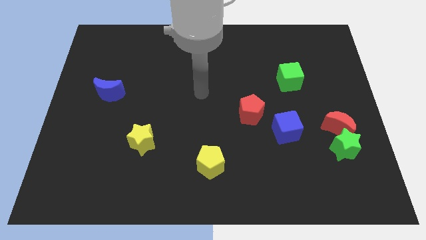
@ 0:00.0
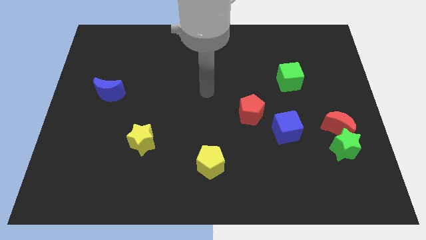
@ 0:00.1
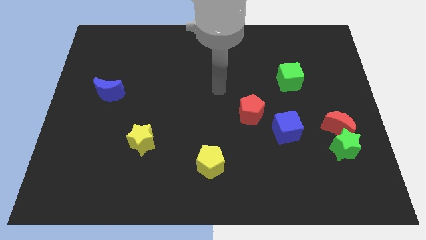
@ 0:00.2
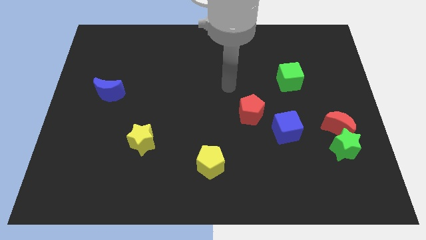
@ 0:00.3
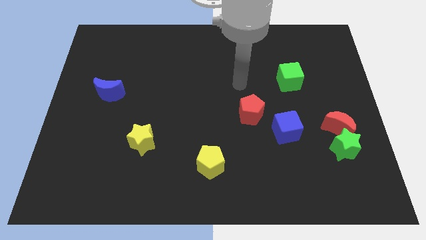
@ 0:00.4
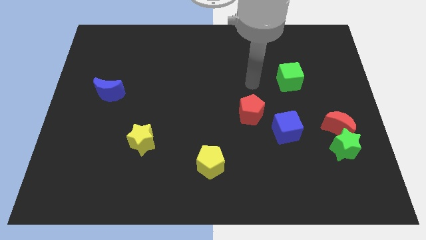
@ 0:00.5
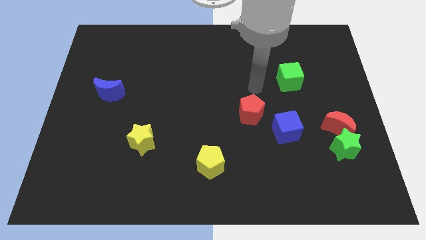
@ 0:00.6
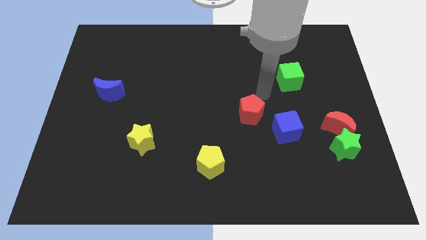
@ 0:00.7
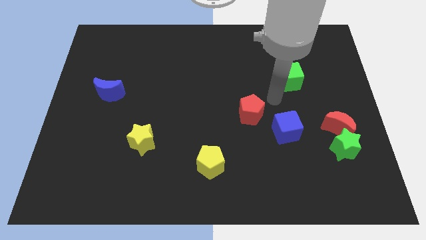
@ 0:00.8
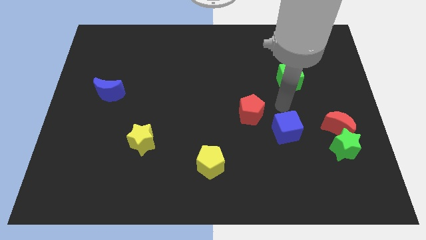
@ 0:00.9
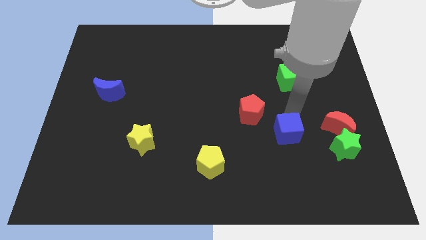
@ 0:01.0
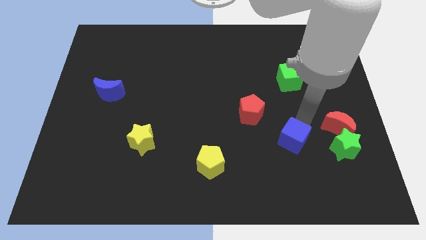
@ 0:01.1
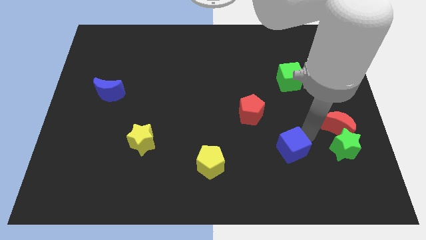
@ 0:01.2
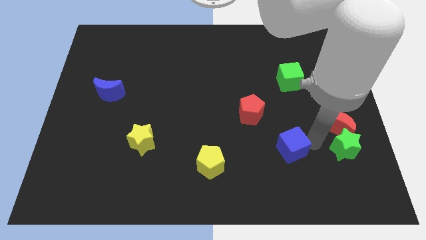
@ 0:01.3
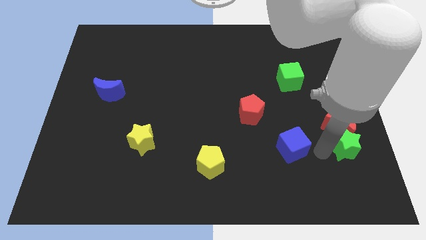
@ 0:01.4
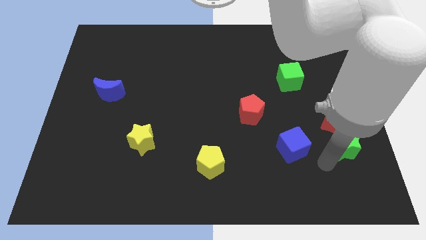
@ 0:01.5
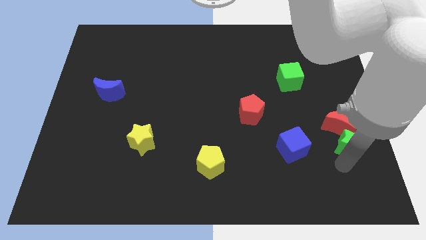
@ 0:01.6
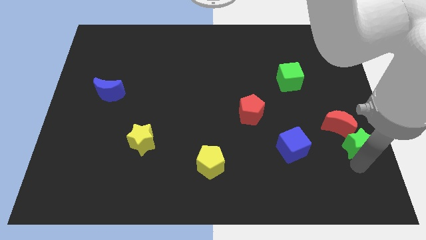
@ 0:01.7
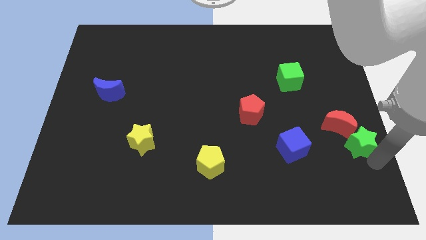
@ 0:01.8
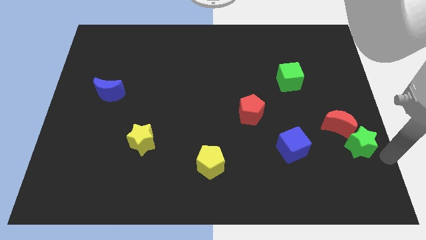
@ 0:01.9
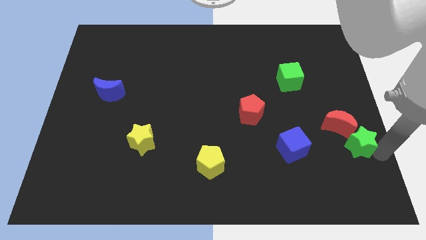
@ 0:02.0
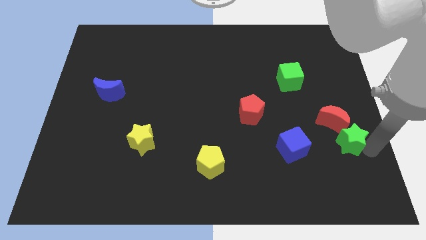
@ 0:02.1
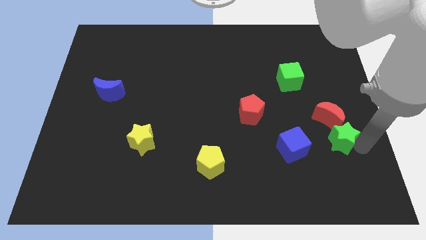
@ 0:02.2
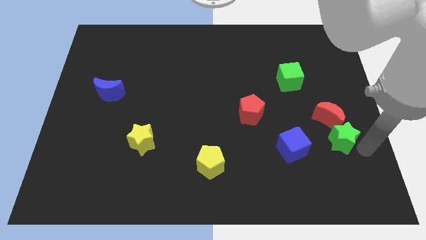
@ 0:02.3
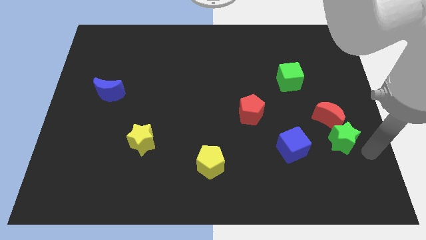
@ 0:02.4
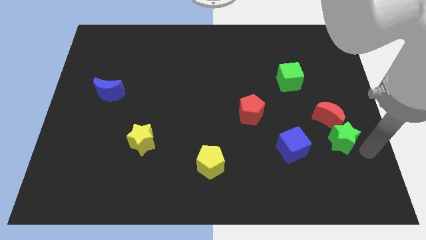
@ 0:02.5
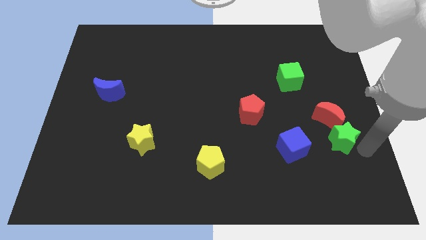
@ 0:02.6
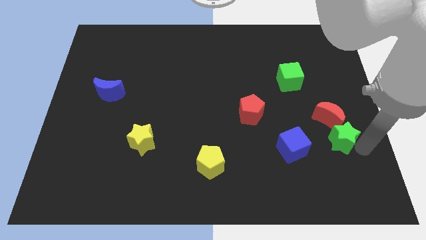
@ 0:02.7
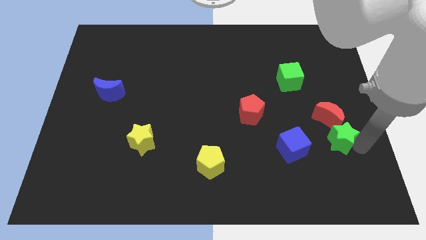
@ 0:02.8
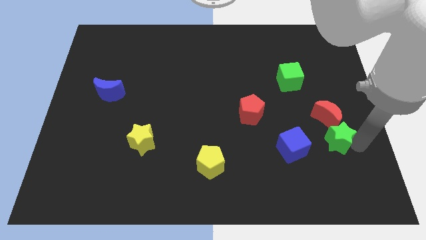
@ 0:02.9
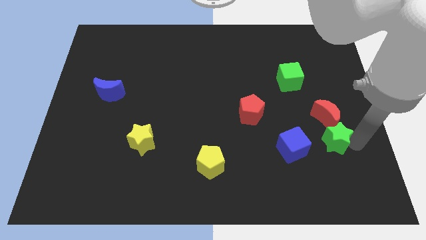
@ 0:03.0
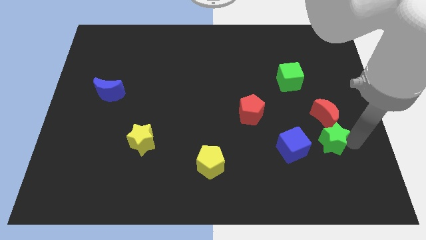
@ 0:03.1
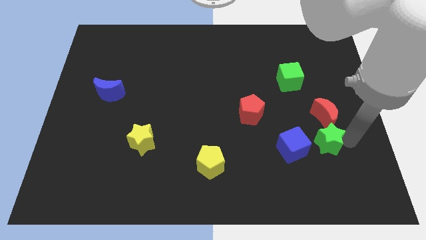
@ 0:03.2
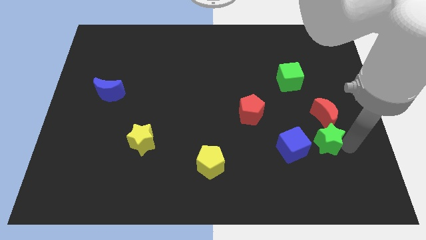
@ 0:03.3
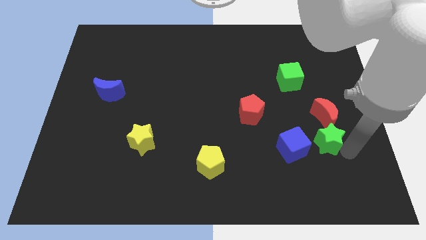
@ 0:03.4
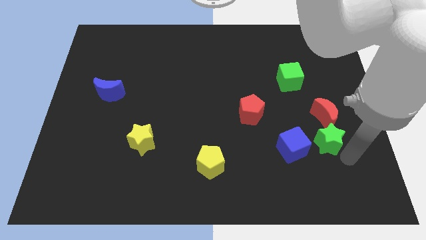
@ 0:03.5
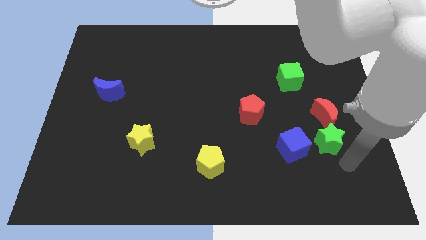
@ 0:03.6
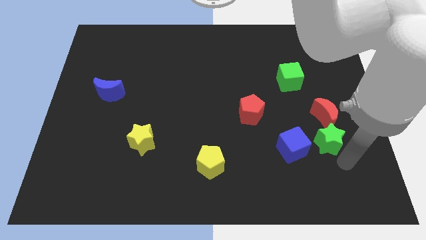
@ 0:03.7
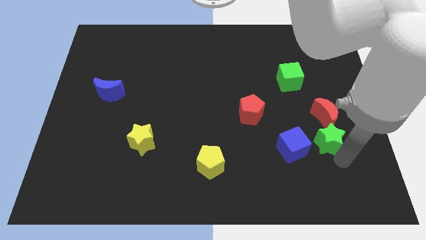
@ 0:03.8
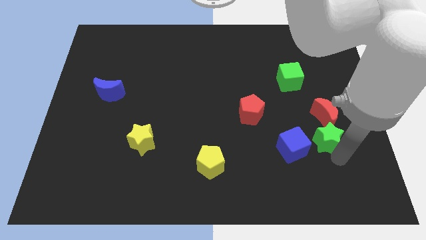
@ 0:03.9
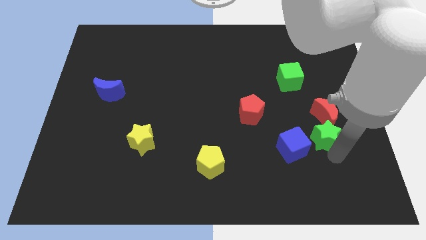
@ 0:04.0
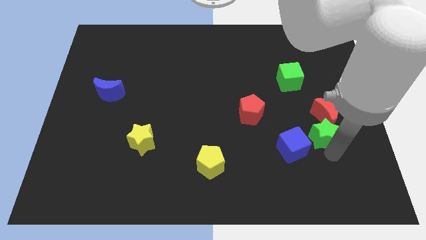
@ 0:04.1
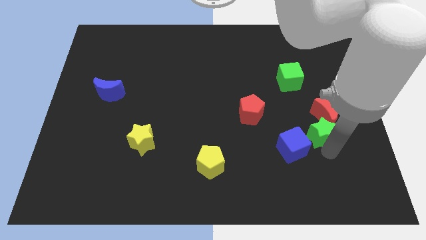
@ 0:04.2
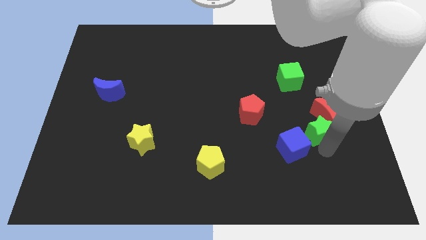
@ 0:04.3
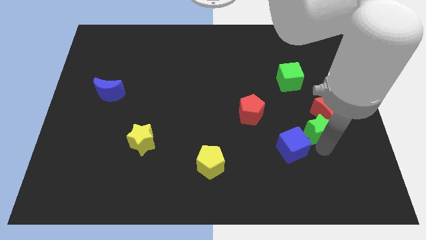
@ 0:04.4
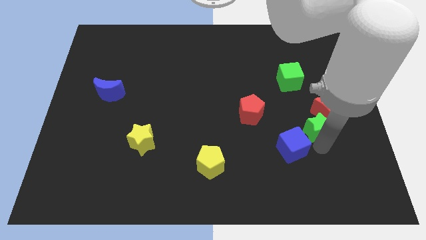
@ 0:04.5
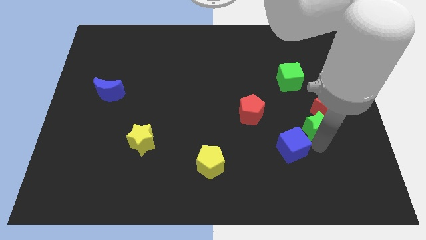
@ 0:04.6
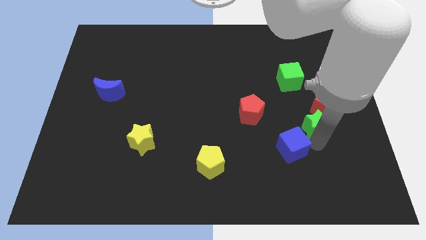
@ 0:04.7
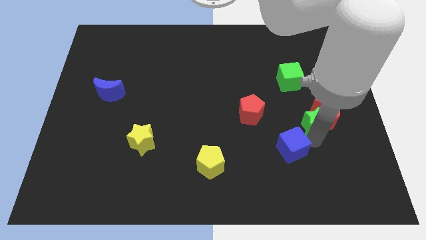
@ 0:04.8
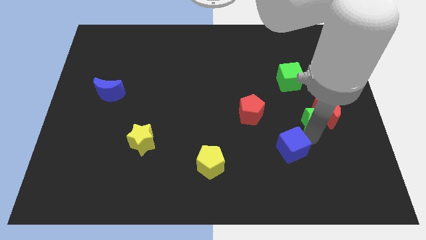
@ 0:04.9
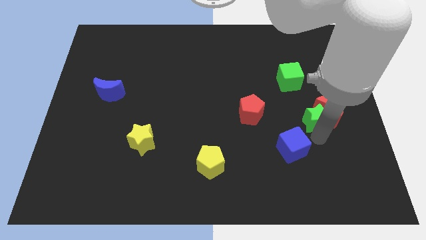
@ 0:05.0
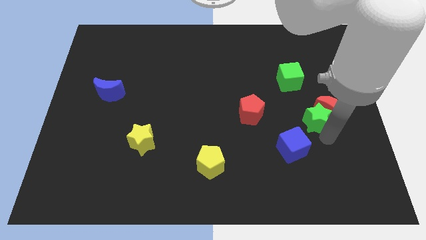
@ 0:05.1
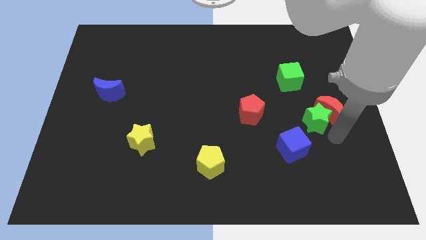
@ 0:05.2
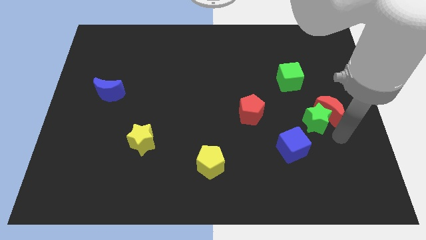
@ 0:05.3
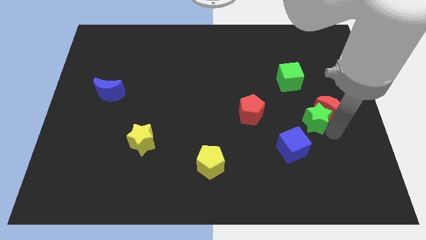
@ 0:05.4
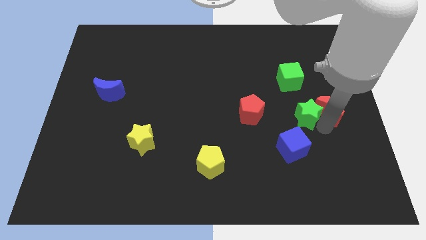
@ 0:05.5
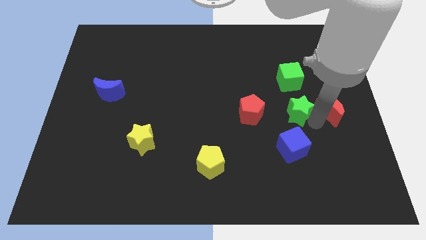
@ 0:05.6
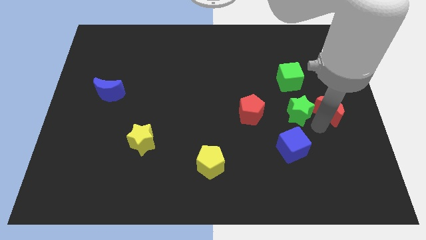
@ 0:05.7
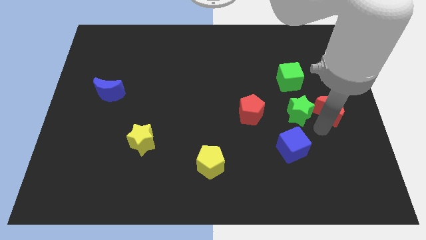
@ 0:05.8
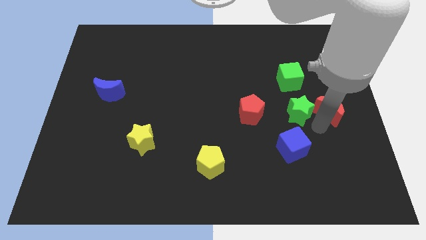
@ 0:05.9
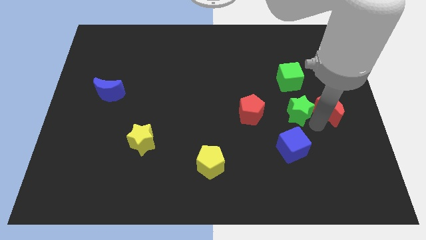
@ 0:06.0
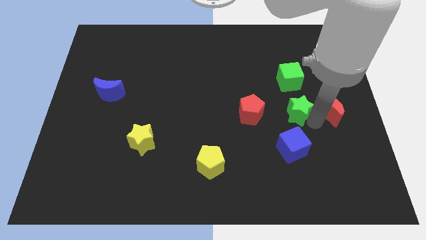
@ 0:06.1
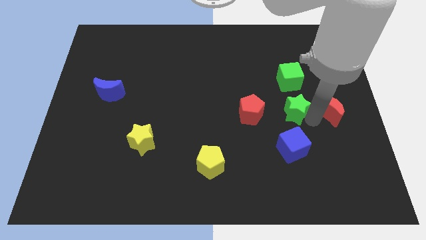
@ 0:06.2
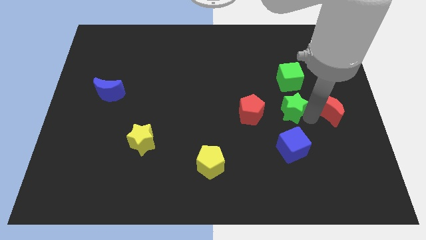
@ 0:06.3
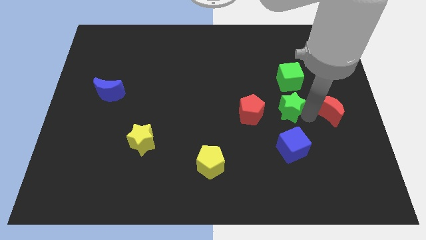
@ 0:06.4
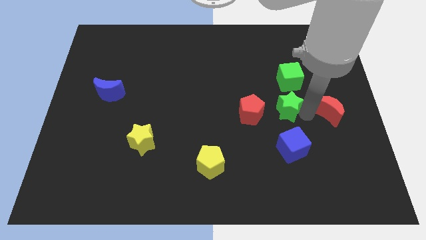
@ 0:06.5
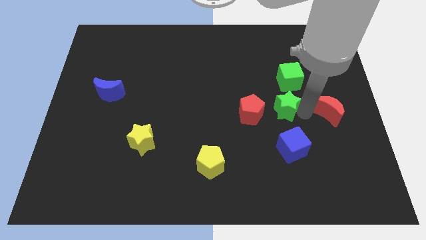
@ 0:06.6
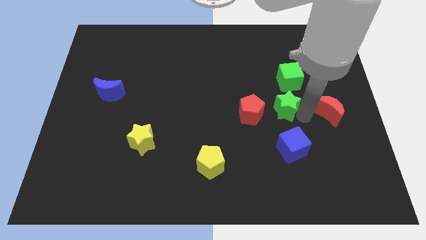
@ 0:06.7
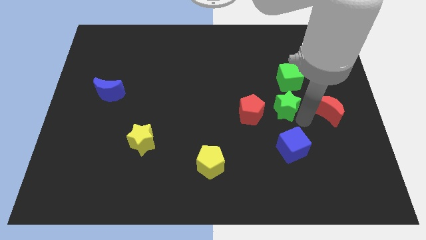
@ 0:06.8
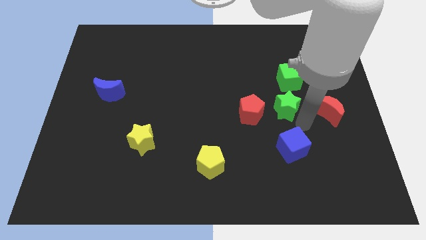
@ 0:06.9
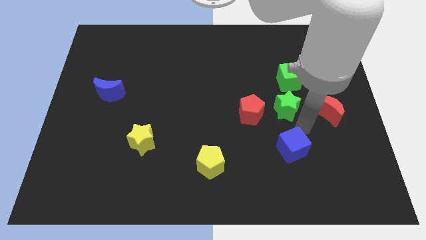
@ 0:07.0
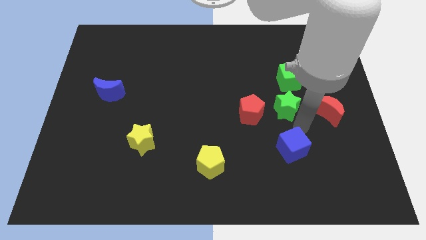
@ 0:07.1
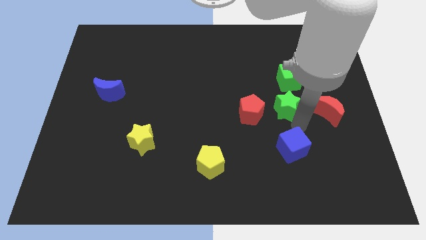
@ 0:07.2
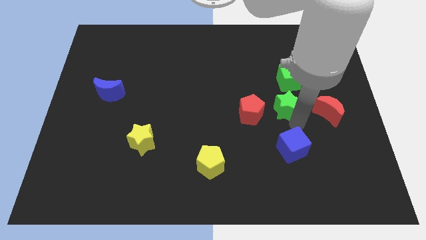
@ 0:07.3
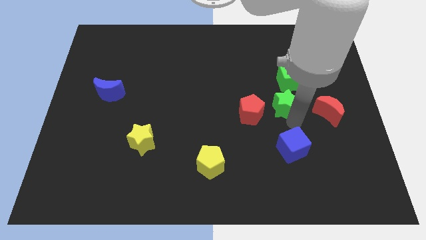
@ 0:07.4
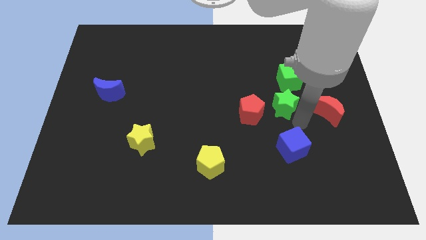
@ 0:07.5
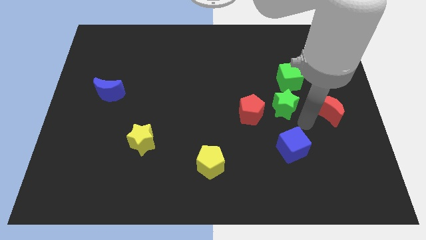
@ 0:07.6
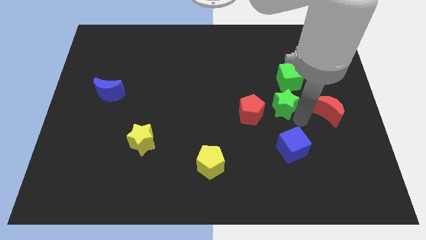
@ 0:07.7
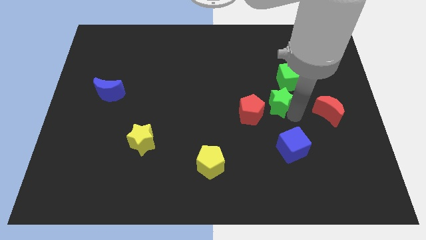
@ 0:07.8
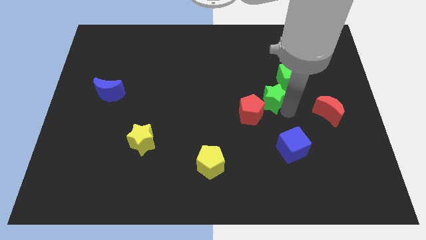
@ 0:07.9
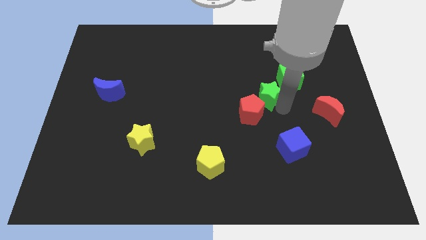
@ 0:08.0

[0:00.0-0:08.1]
push the green star up and left
